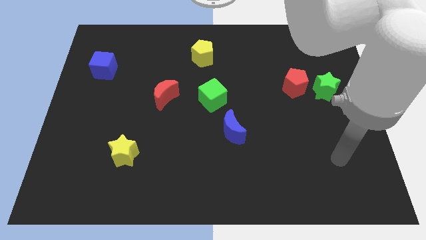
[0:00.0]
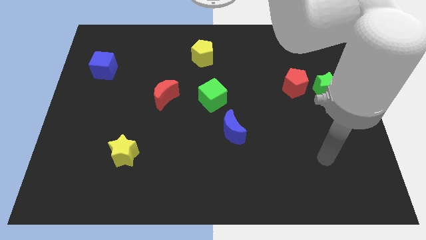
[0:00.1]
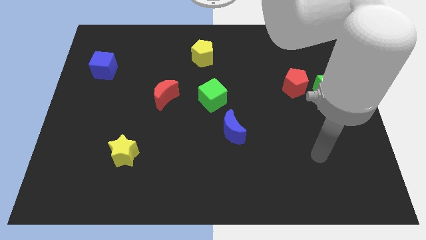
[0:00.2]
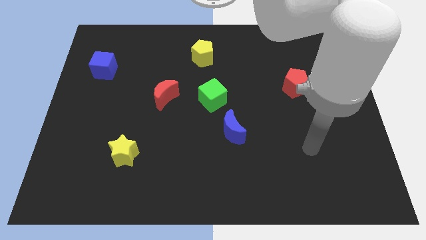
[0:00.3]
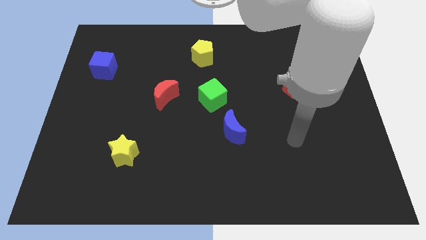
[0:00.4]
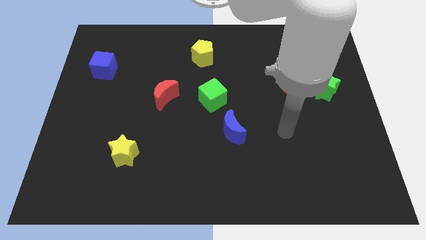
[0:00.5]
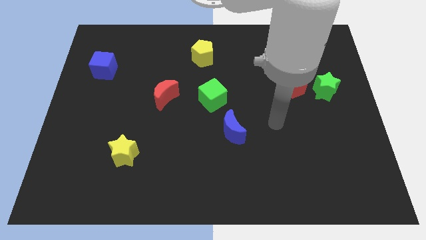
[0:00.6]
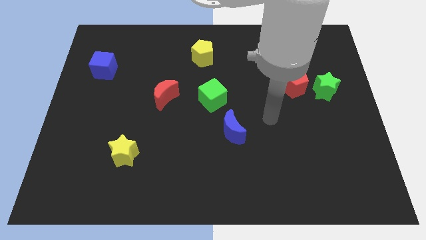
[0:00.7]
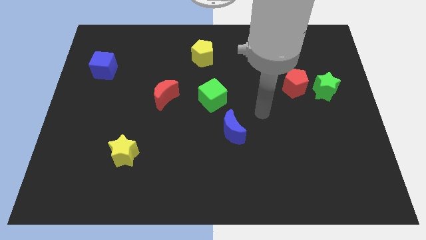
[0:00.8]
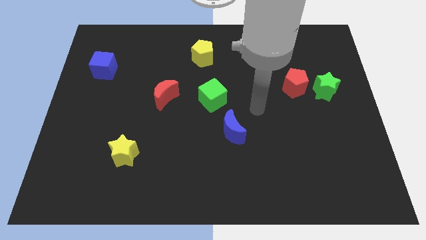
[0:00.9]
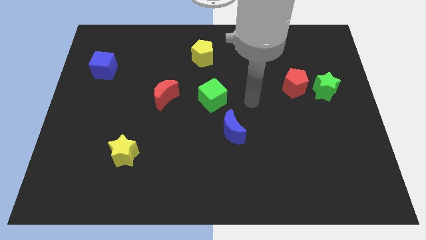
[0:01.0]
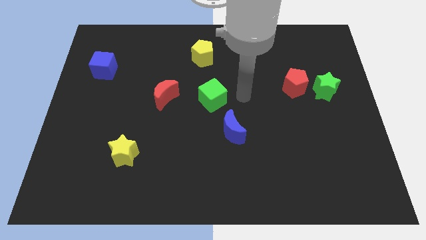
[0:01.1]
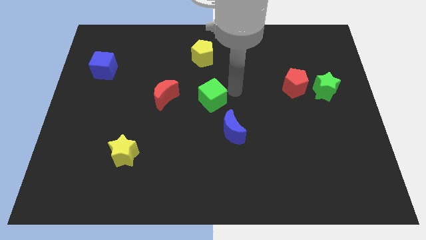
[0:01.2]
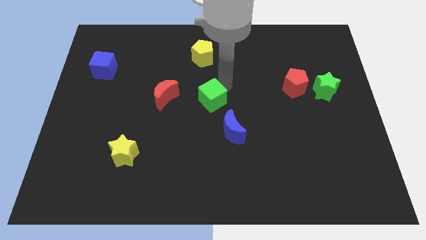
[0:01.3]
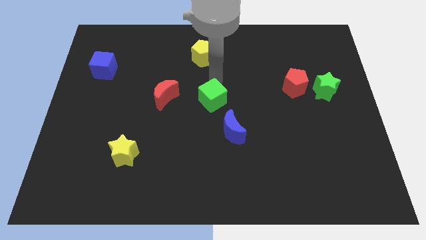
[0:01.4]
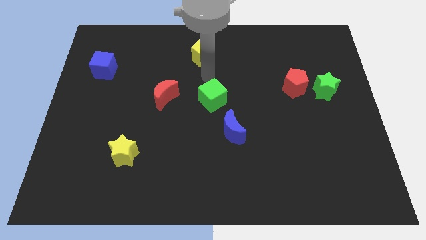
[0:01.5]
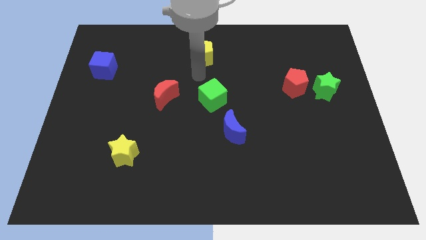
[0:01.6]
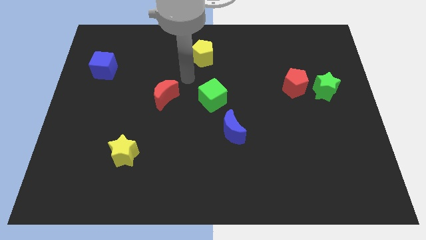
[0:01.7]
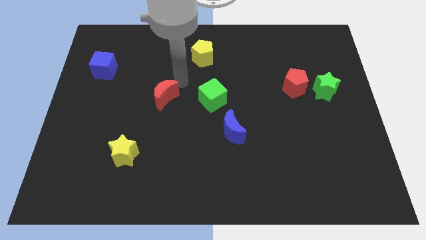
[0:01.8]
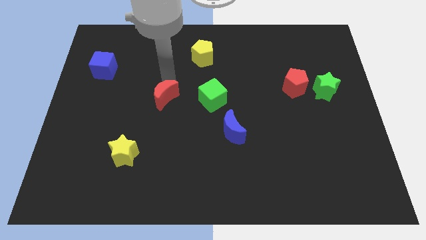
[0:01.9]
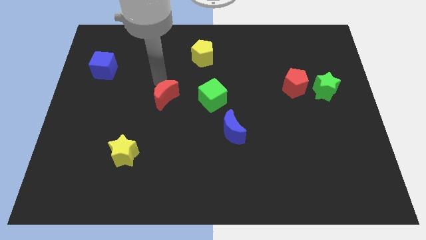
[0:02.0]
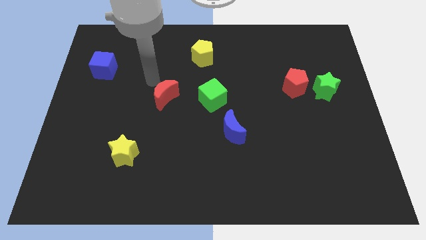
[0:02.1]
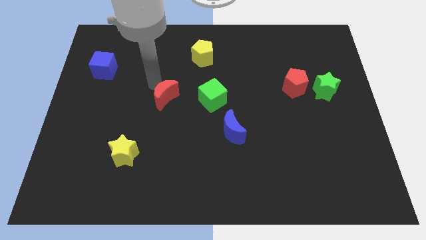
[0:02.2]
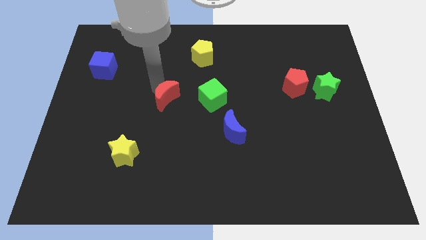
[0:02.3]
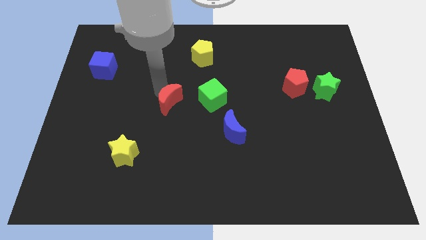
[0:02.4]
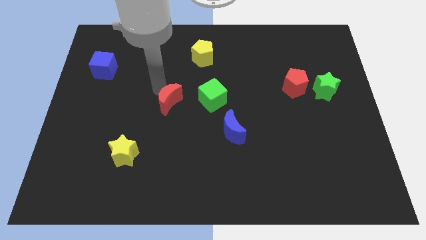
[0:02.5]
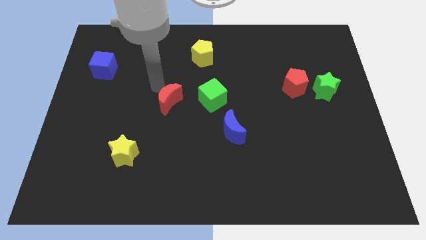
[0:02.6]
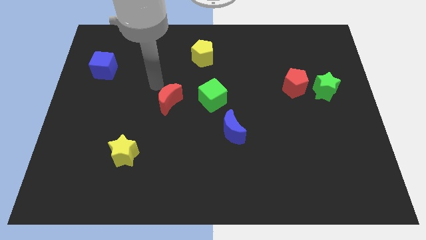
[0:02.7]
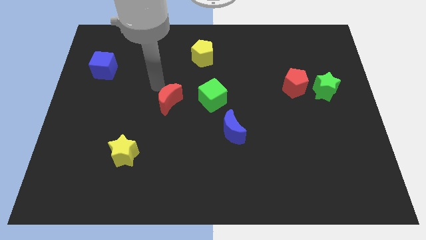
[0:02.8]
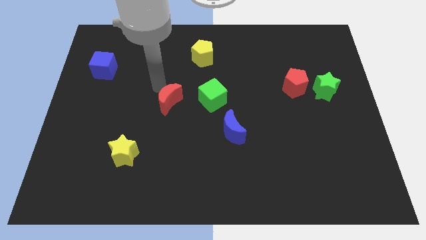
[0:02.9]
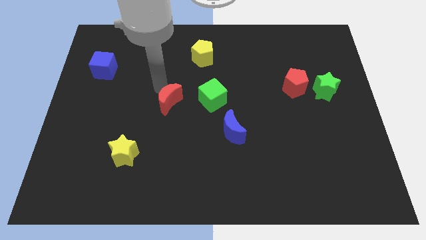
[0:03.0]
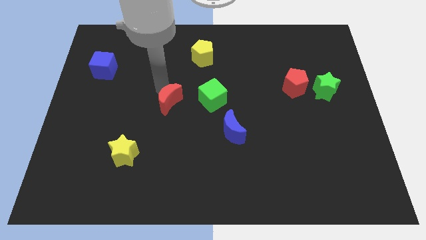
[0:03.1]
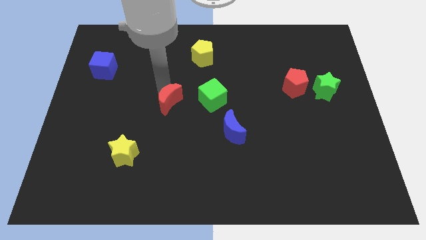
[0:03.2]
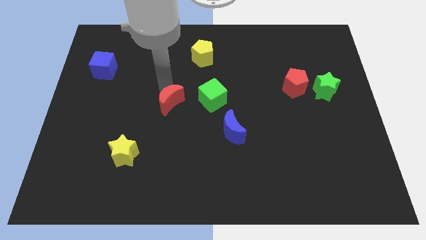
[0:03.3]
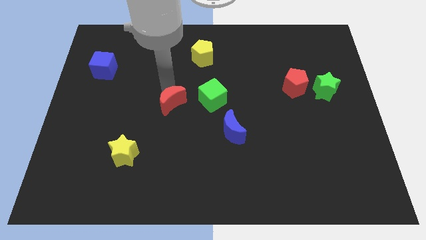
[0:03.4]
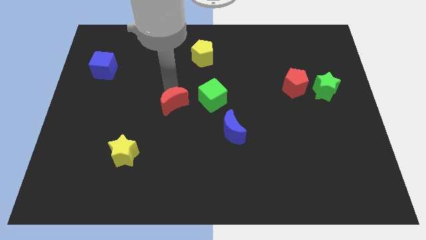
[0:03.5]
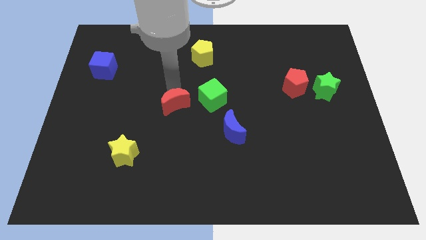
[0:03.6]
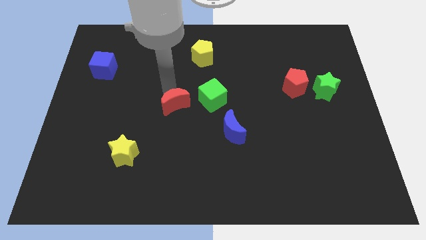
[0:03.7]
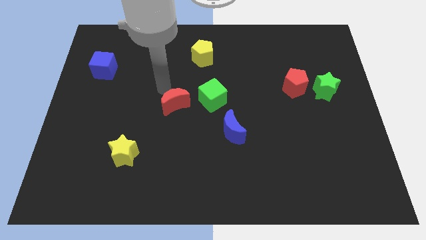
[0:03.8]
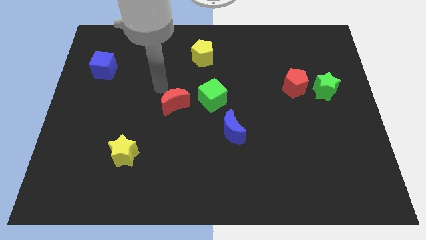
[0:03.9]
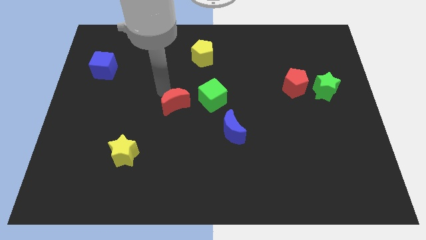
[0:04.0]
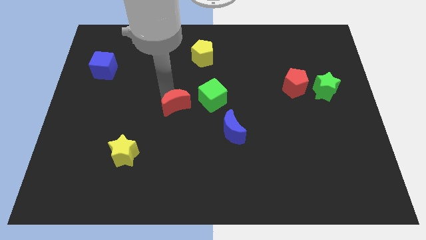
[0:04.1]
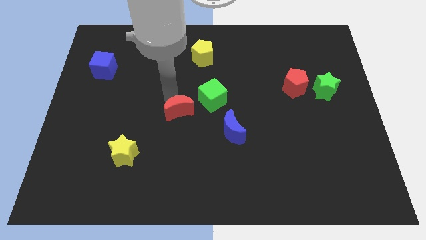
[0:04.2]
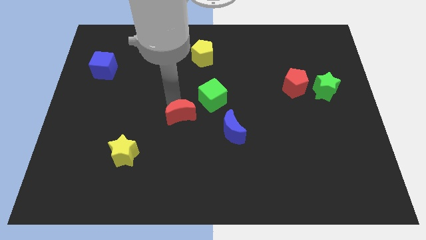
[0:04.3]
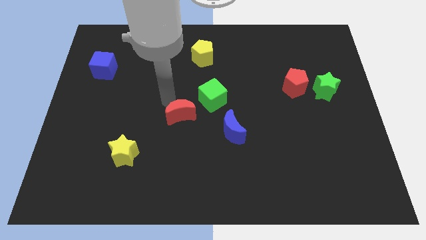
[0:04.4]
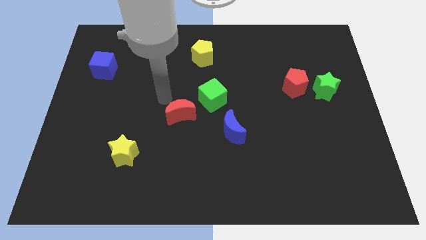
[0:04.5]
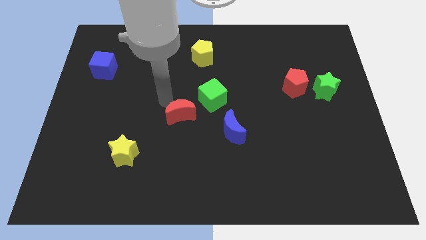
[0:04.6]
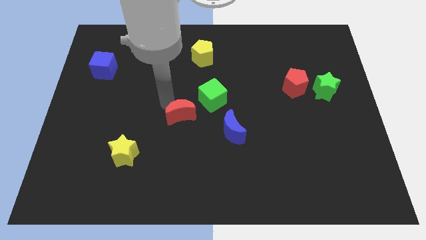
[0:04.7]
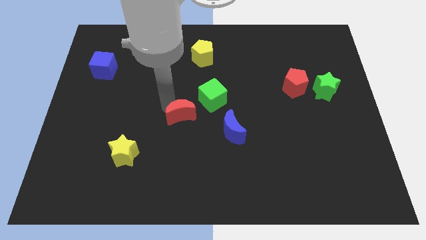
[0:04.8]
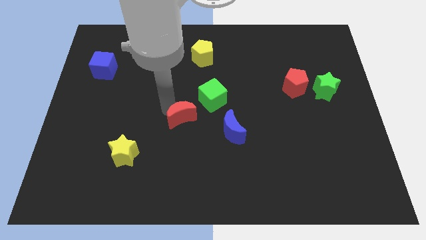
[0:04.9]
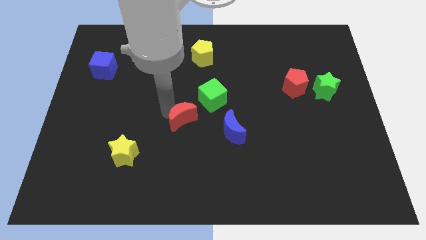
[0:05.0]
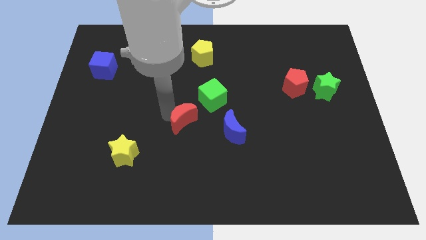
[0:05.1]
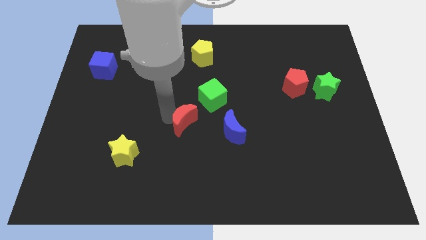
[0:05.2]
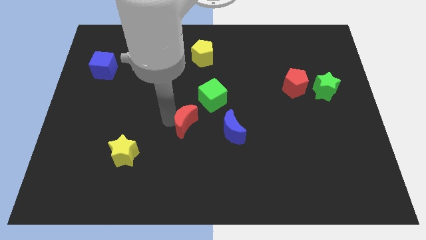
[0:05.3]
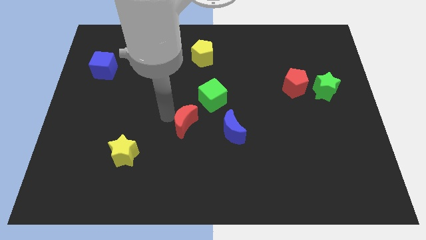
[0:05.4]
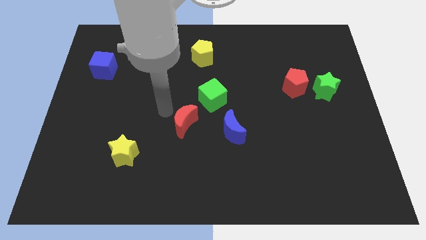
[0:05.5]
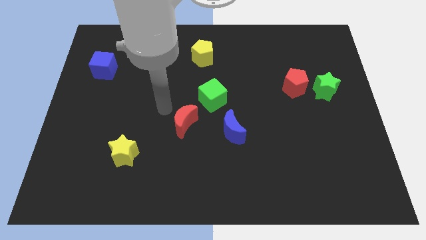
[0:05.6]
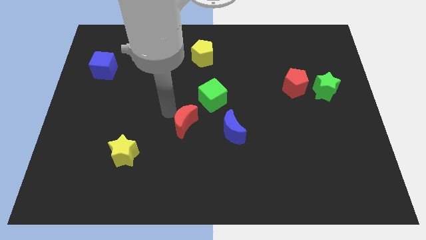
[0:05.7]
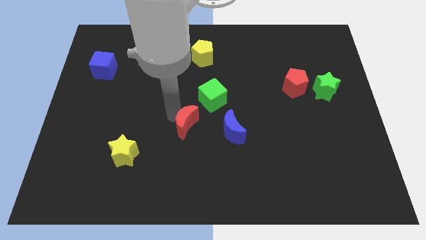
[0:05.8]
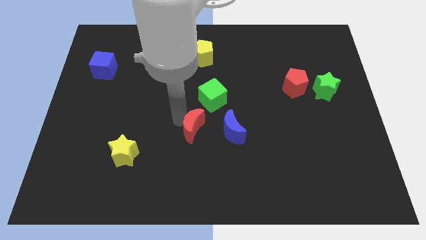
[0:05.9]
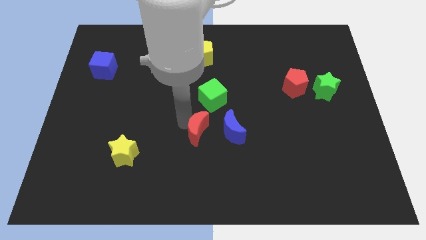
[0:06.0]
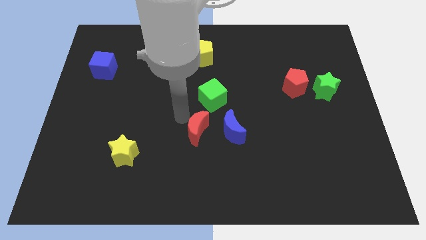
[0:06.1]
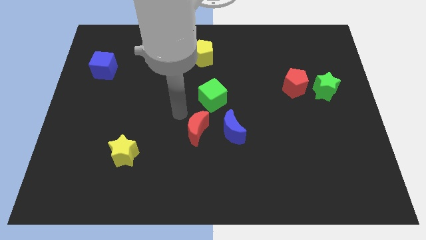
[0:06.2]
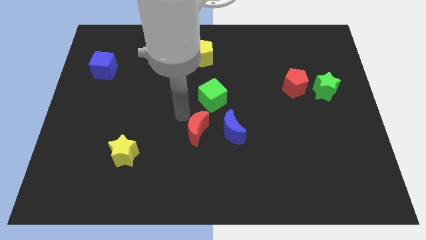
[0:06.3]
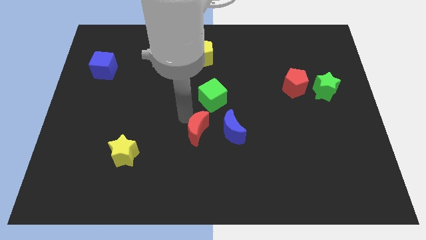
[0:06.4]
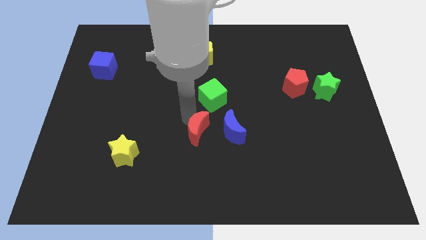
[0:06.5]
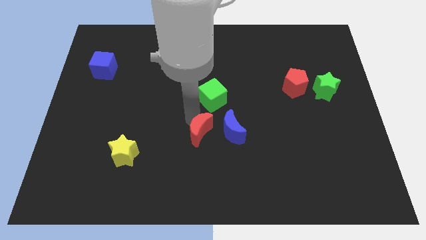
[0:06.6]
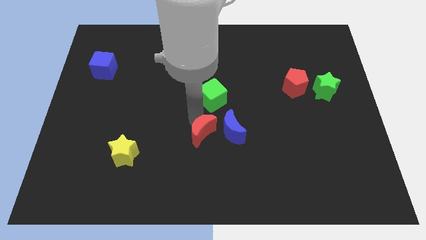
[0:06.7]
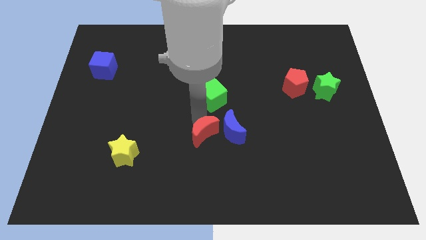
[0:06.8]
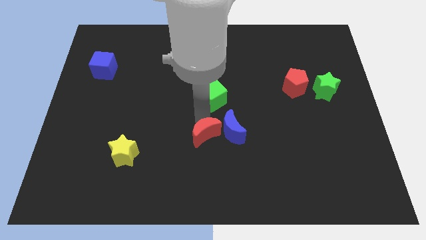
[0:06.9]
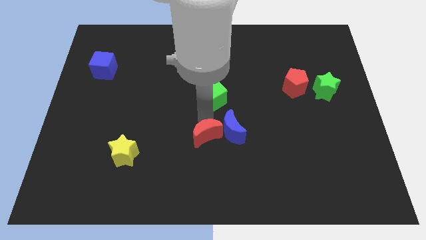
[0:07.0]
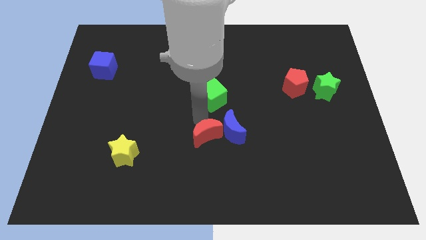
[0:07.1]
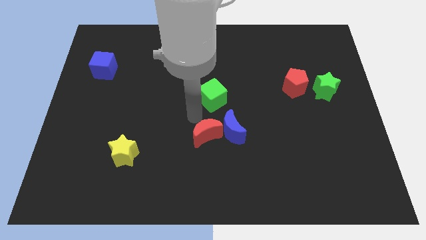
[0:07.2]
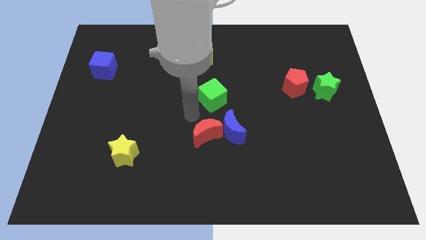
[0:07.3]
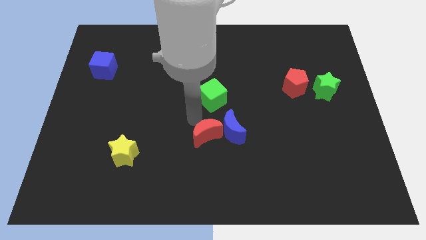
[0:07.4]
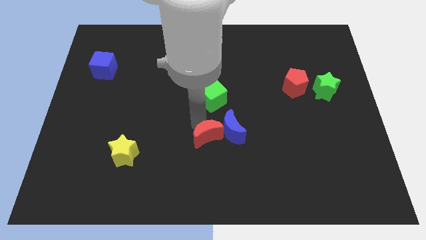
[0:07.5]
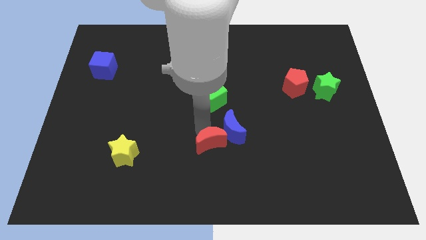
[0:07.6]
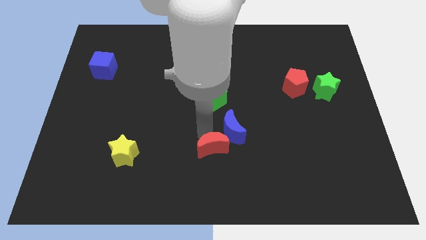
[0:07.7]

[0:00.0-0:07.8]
move the red moon to the bottom of the blue moon
